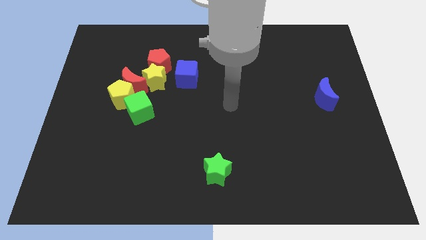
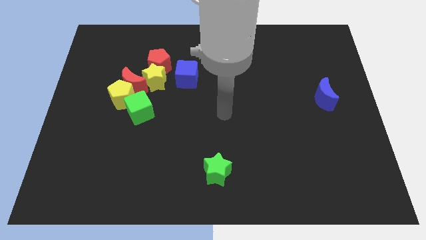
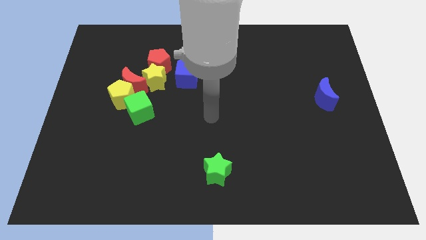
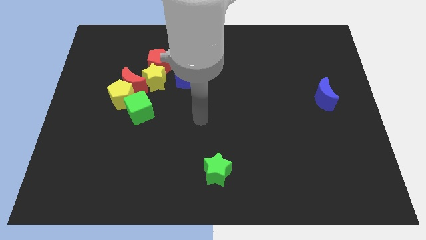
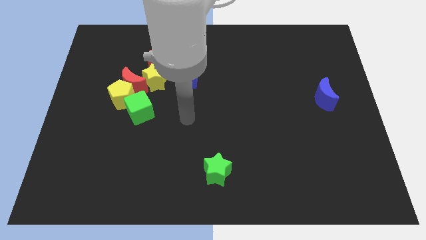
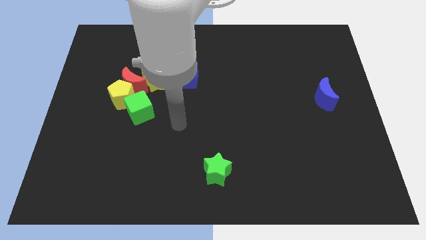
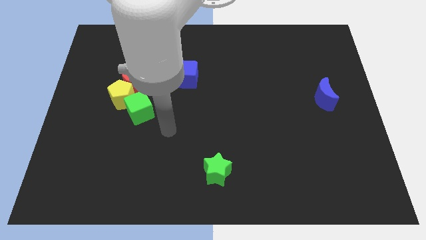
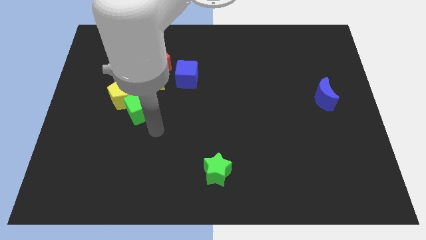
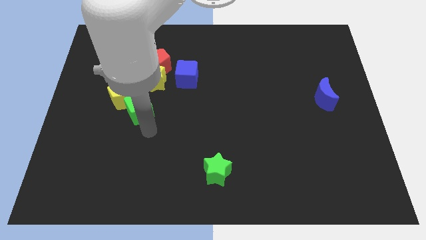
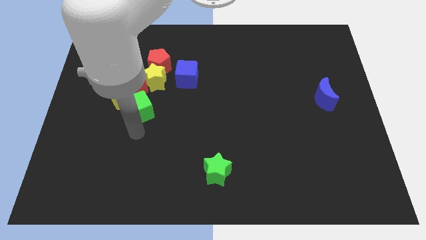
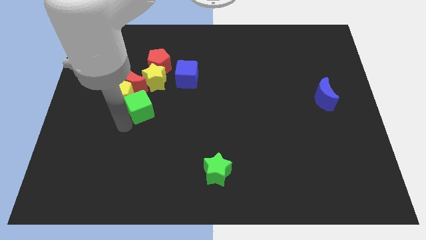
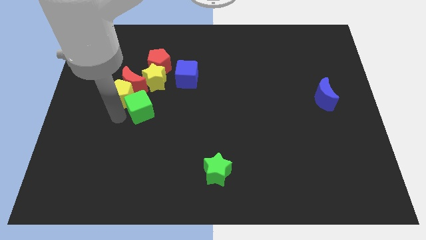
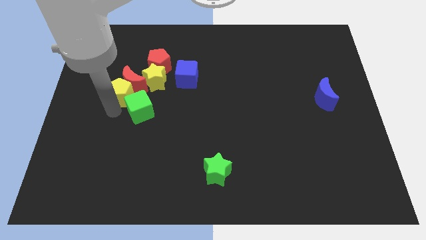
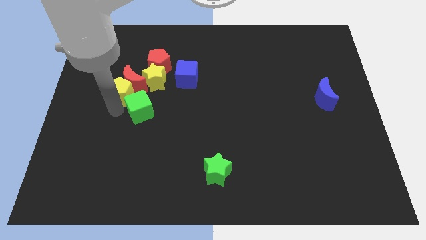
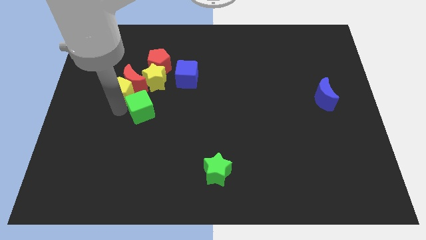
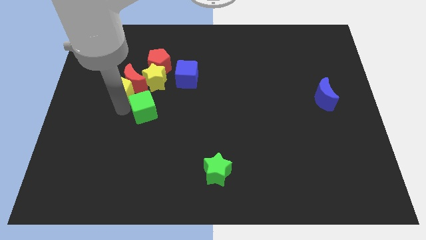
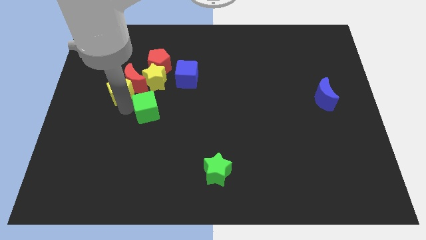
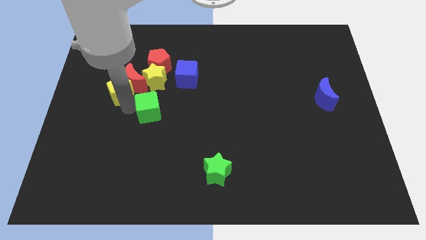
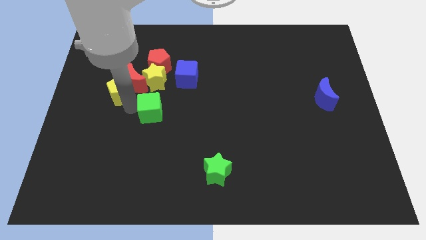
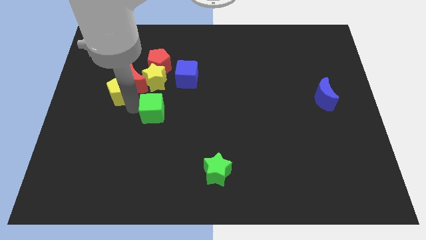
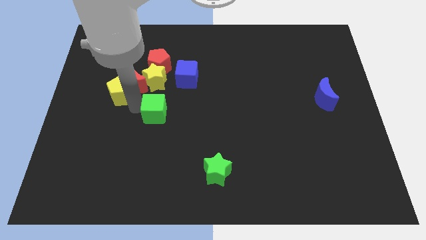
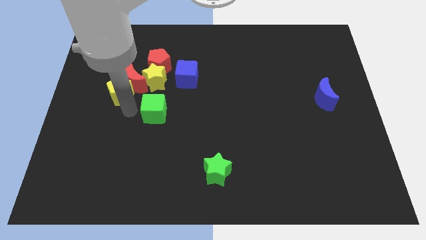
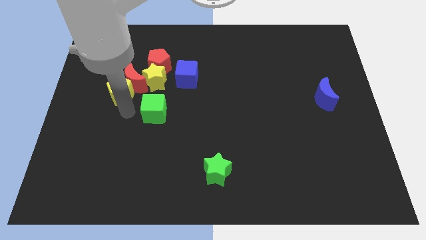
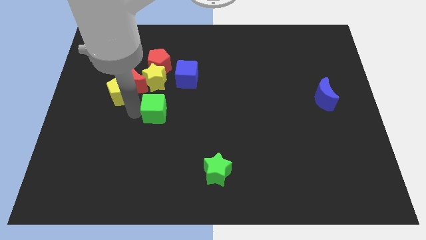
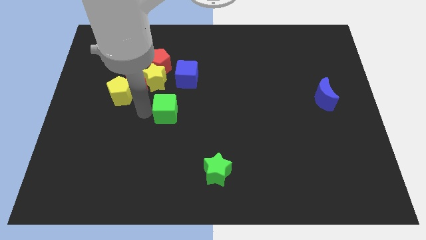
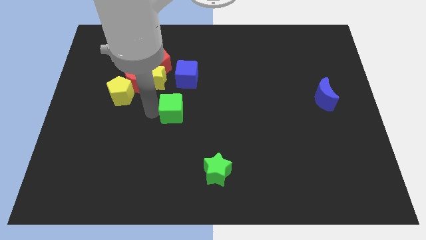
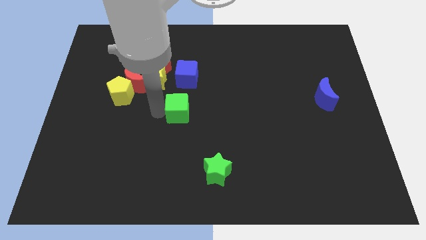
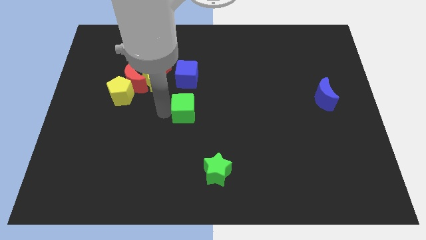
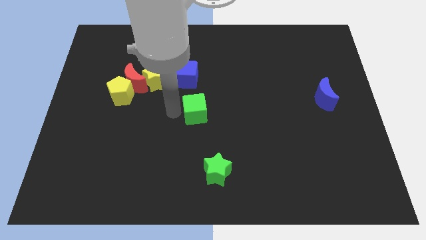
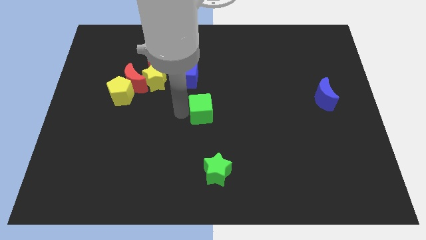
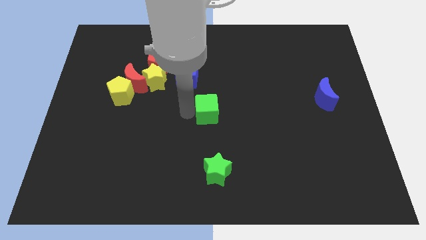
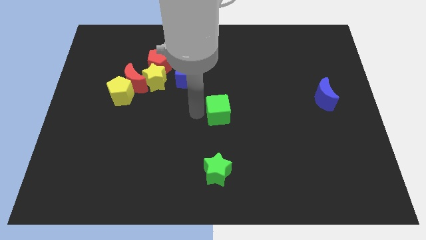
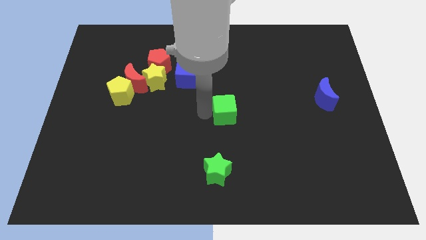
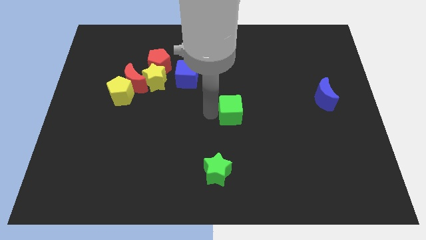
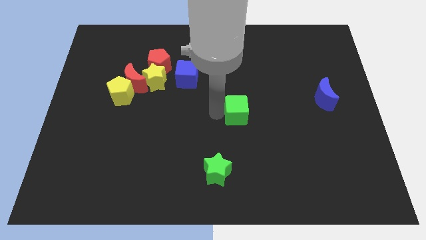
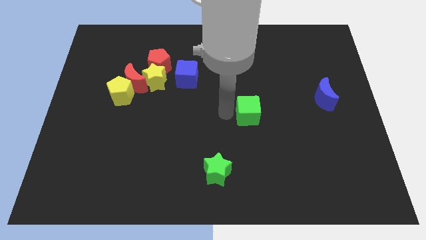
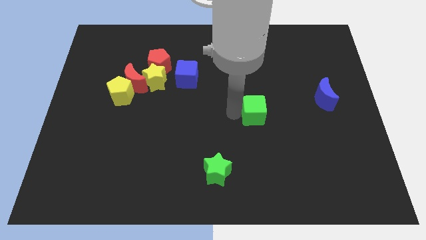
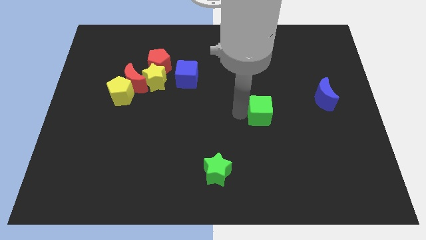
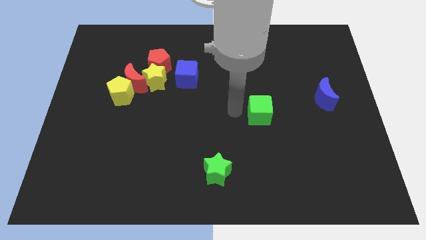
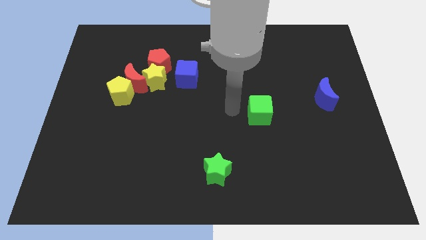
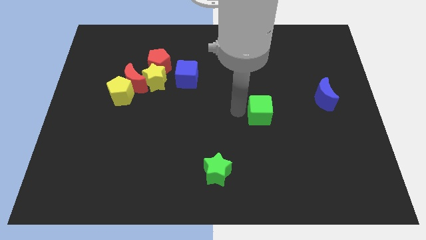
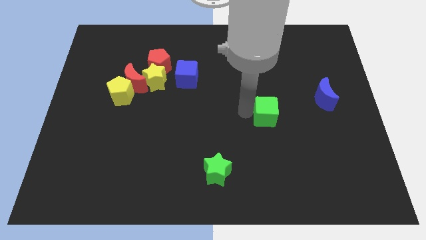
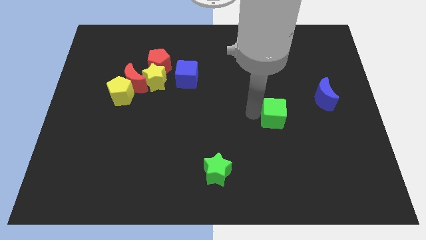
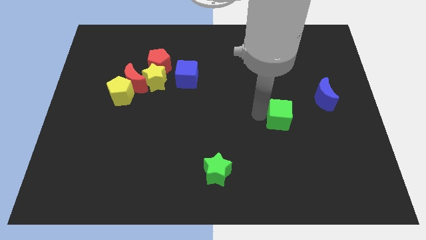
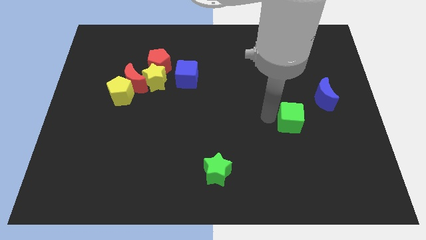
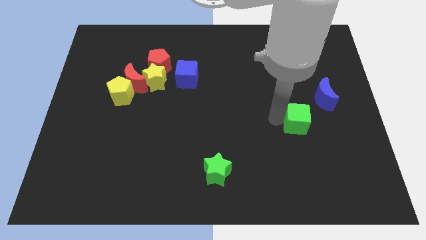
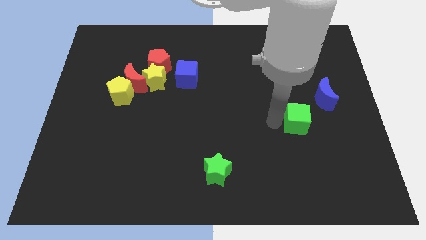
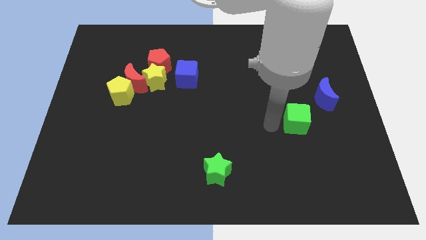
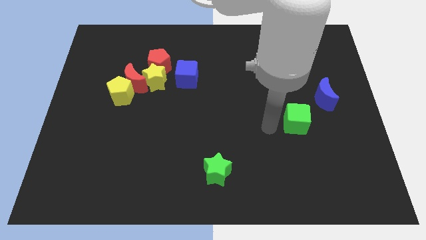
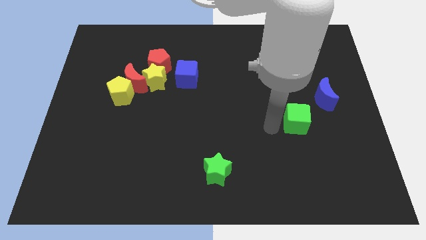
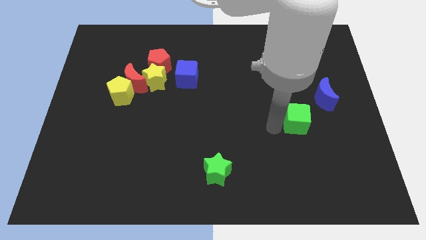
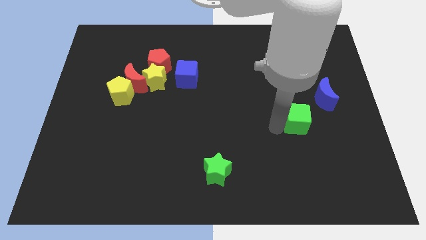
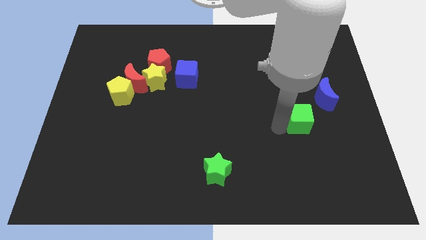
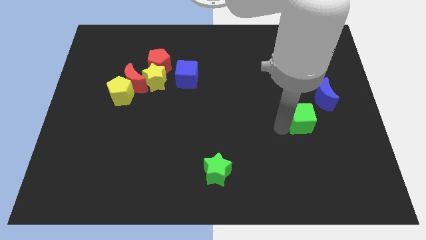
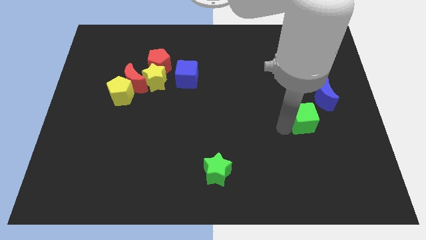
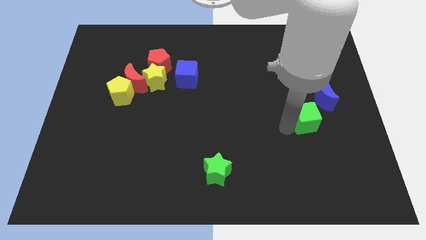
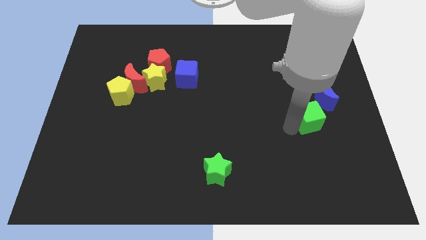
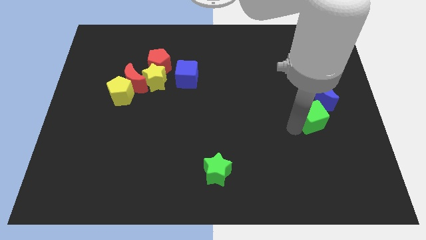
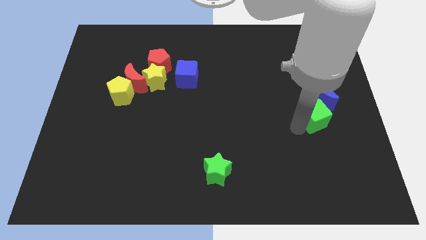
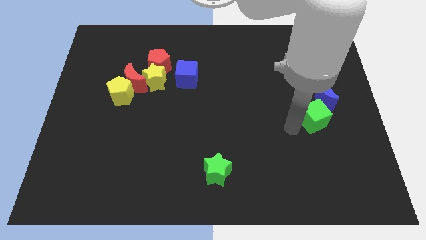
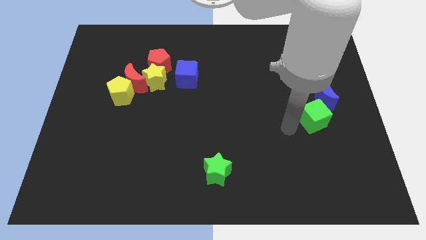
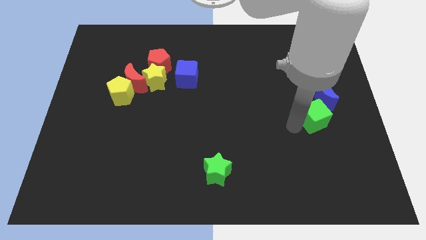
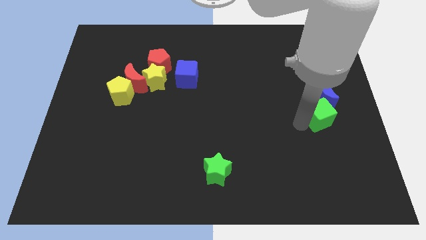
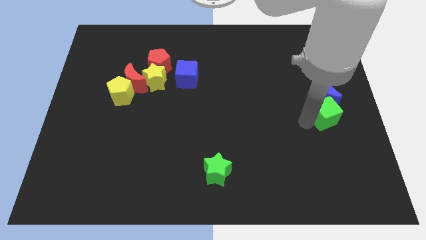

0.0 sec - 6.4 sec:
slide the green cube to the center right

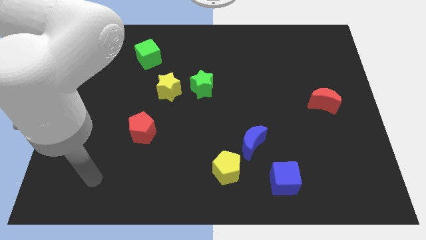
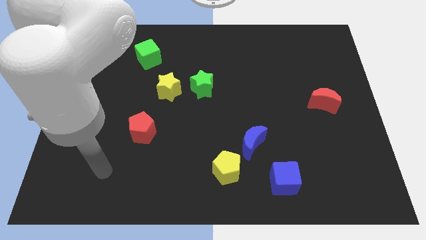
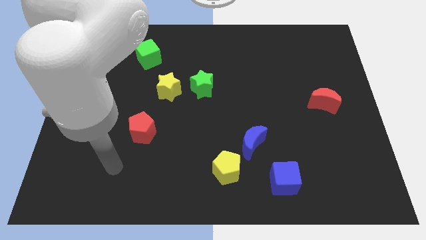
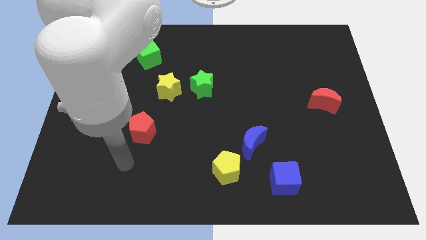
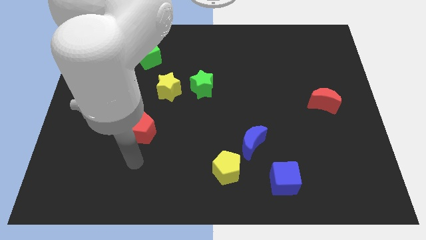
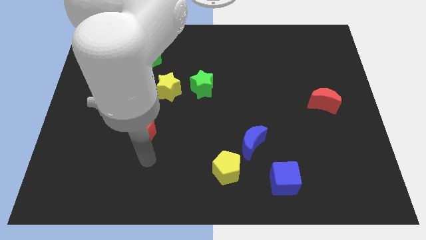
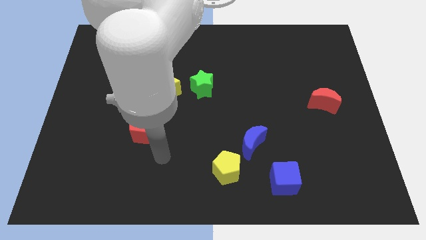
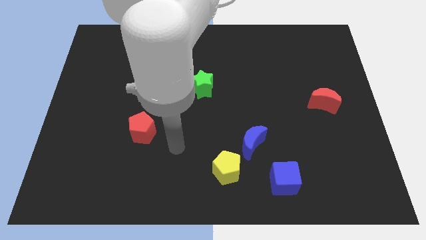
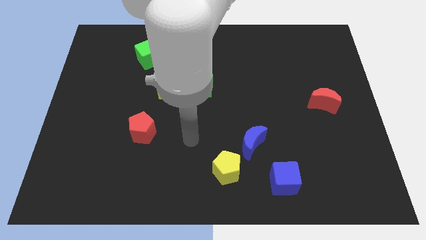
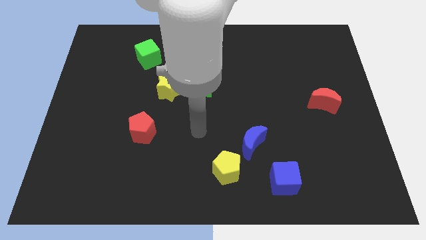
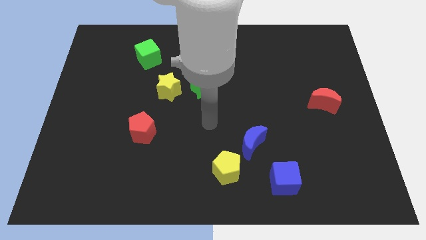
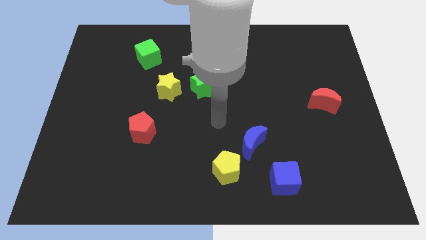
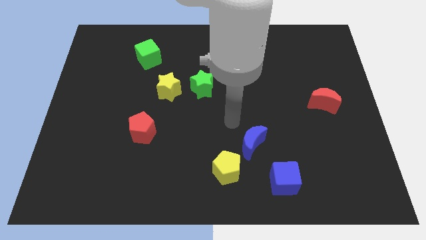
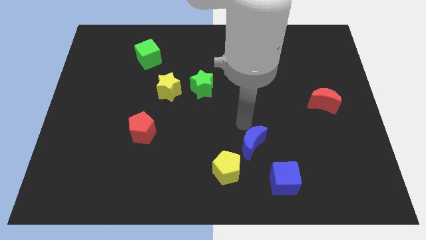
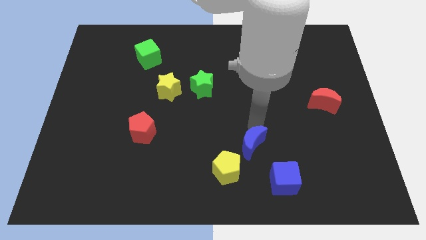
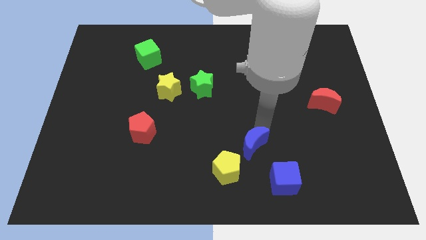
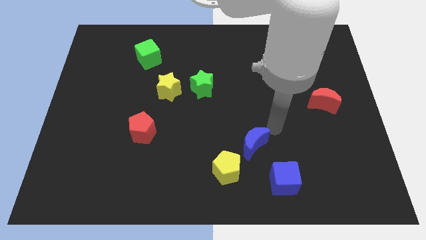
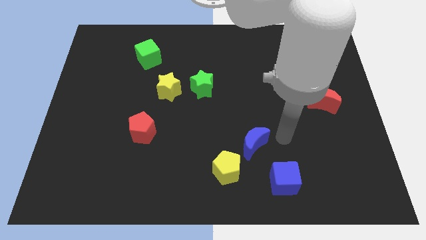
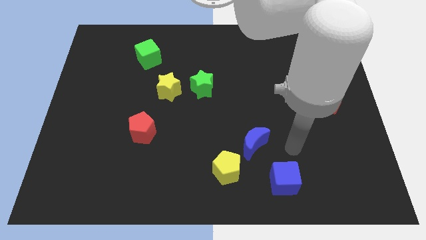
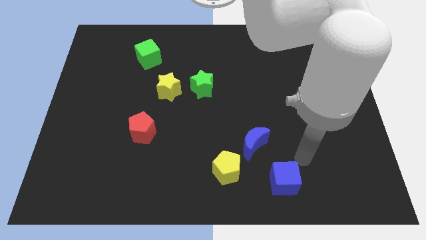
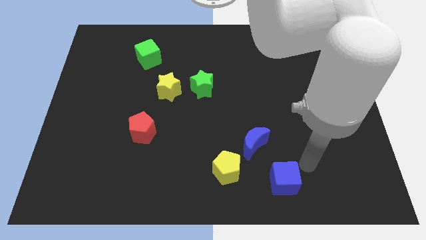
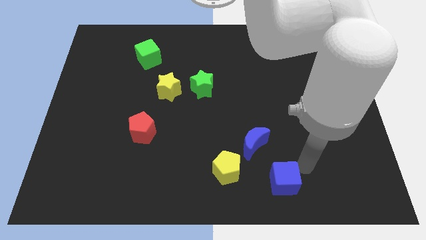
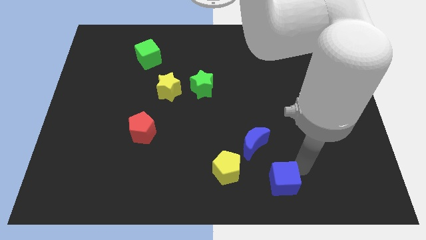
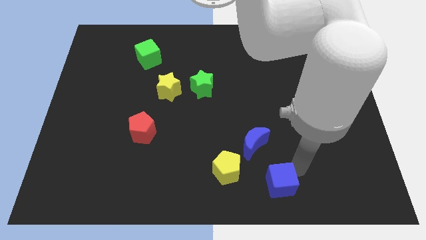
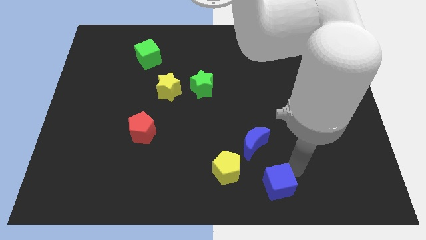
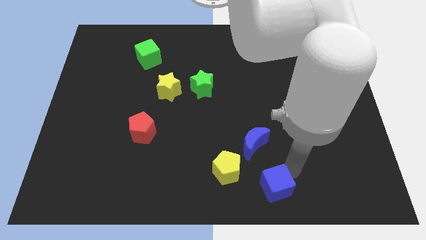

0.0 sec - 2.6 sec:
slide the blue cube to the bottom
